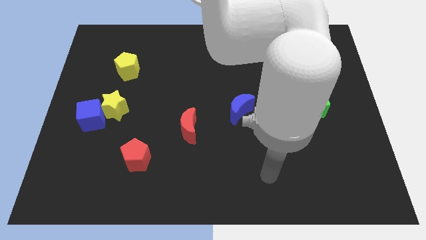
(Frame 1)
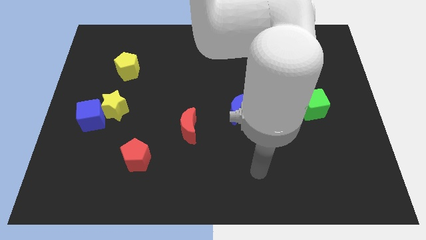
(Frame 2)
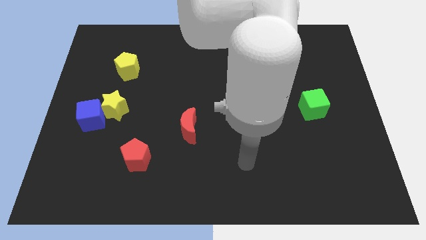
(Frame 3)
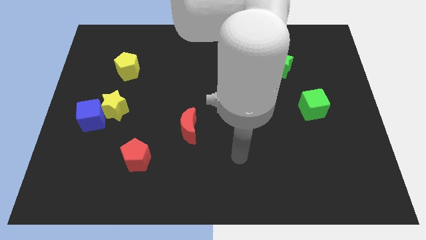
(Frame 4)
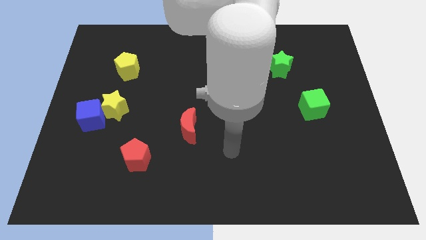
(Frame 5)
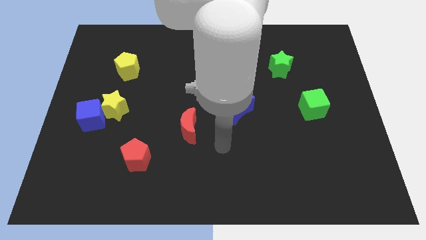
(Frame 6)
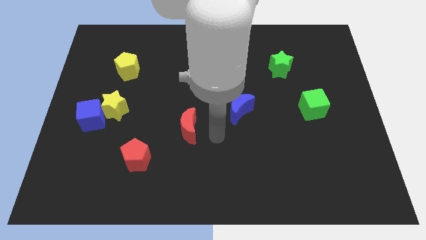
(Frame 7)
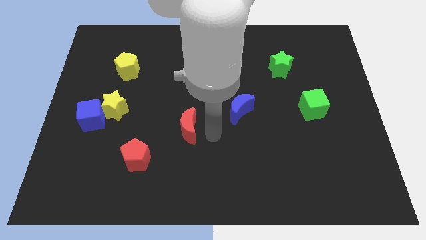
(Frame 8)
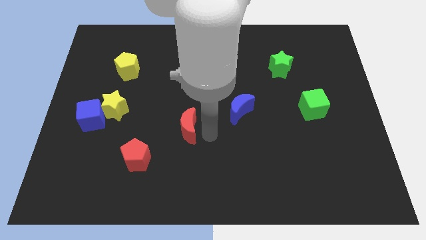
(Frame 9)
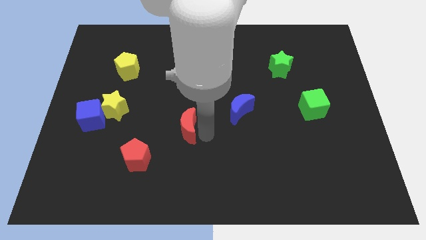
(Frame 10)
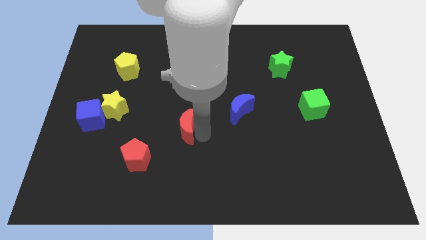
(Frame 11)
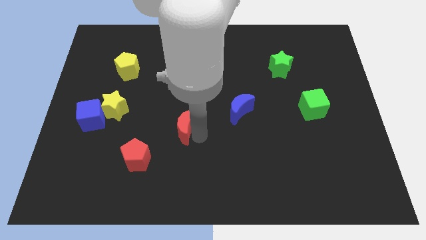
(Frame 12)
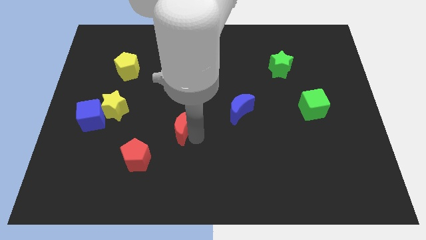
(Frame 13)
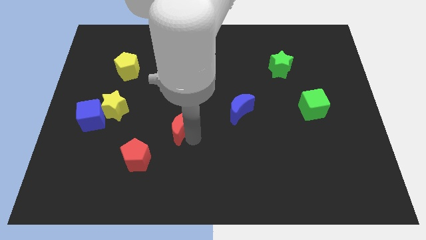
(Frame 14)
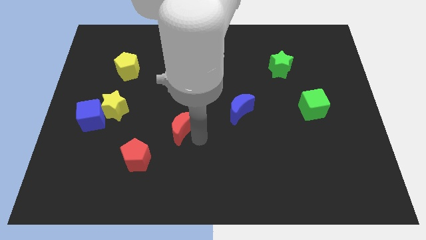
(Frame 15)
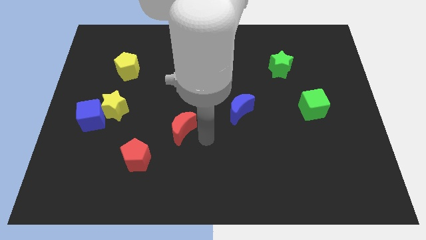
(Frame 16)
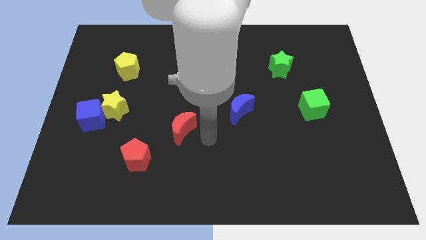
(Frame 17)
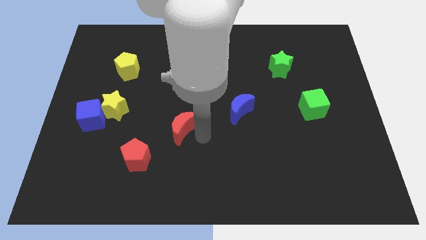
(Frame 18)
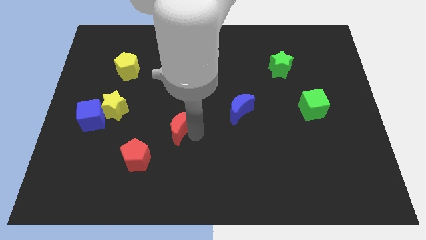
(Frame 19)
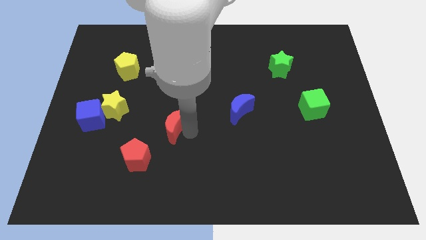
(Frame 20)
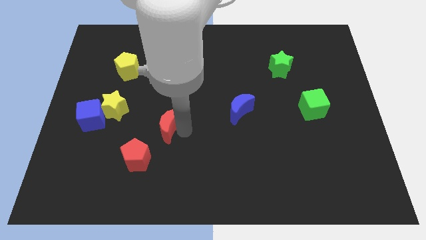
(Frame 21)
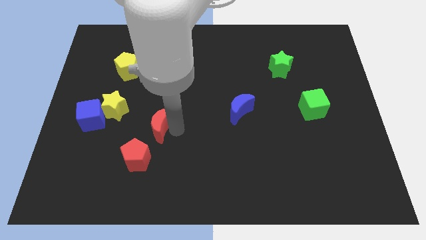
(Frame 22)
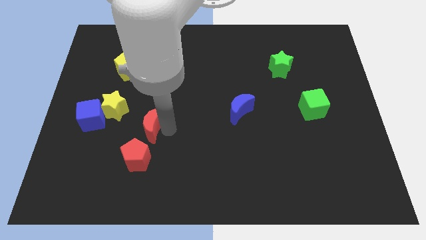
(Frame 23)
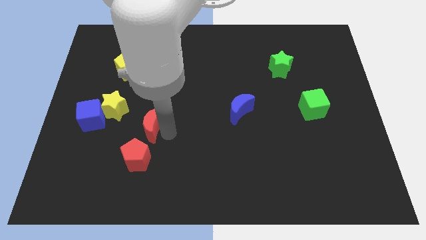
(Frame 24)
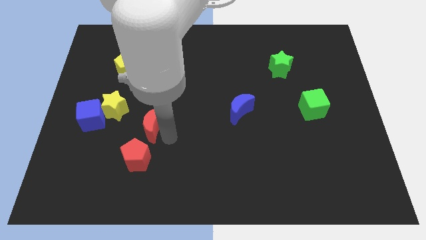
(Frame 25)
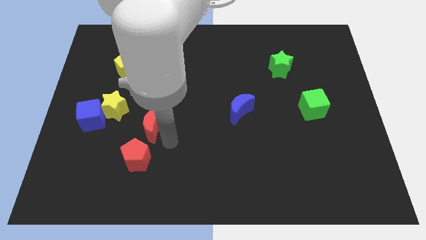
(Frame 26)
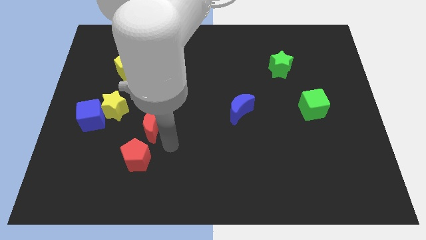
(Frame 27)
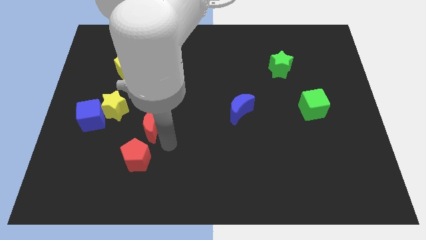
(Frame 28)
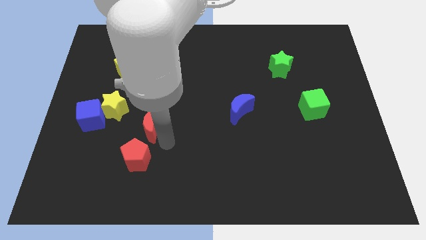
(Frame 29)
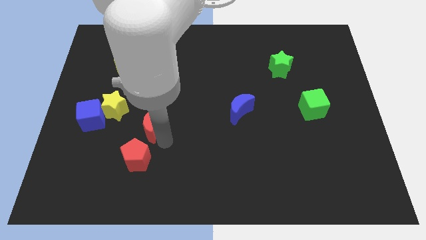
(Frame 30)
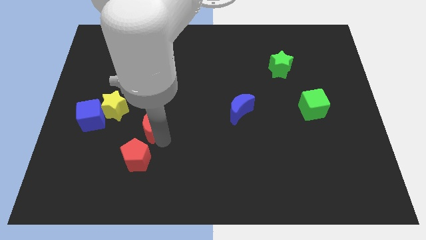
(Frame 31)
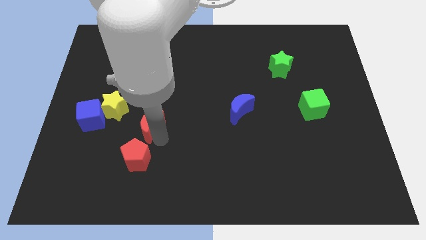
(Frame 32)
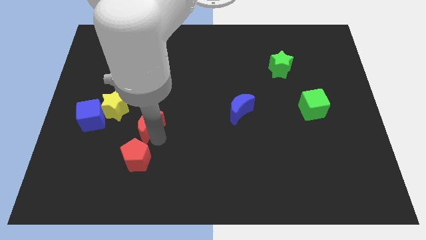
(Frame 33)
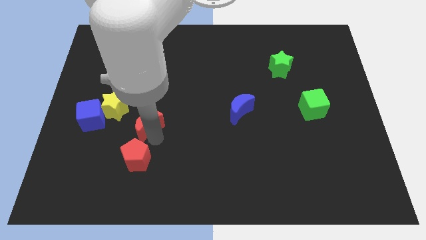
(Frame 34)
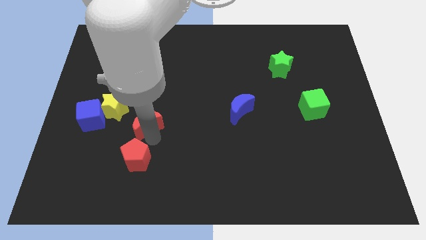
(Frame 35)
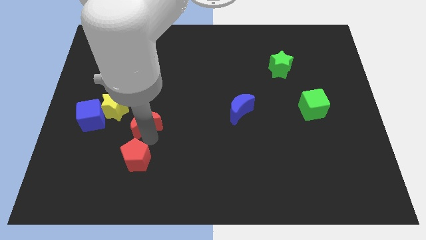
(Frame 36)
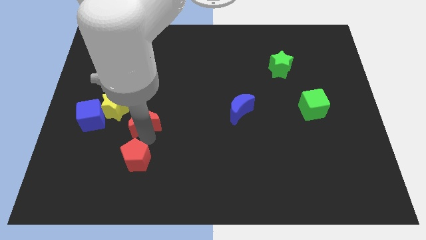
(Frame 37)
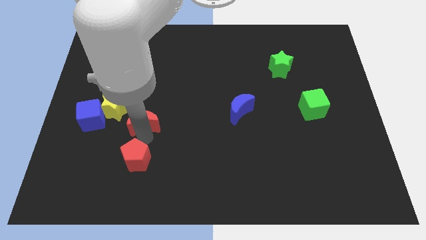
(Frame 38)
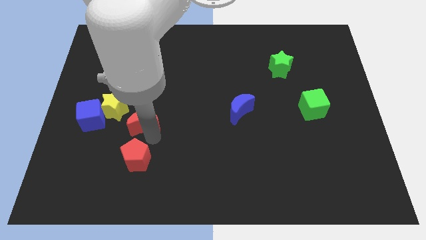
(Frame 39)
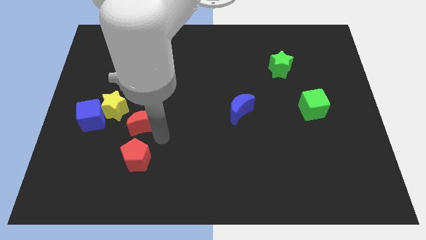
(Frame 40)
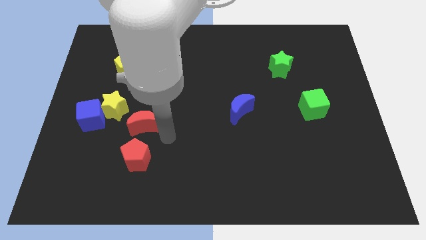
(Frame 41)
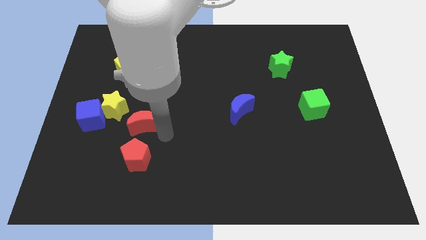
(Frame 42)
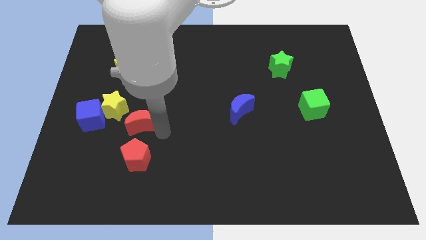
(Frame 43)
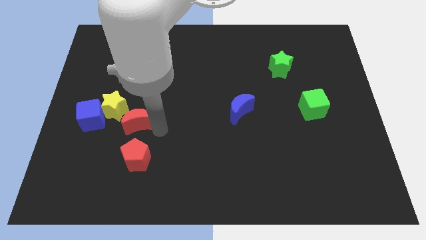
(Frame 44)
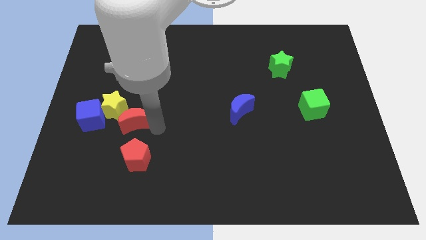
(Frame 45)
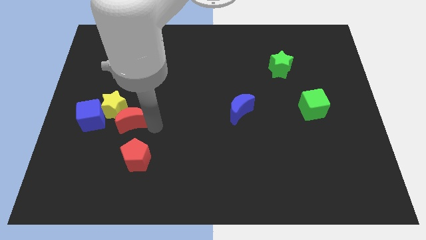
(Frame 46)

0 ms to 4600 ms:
push the red moon to the yellow star

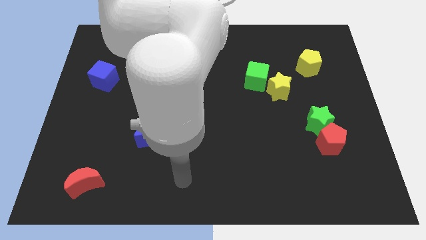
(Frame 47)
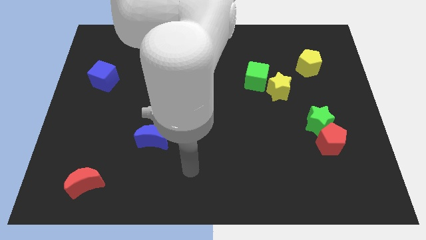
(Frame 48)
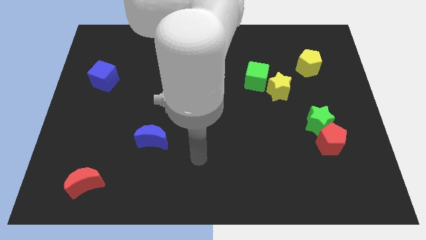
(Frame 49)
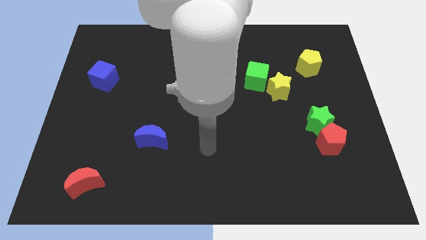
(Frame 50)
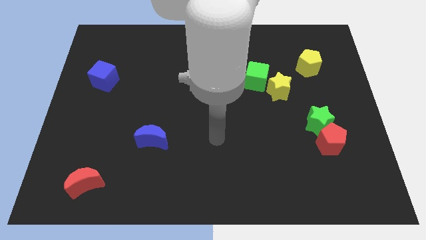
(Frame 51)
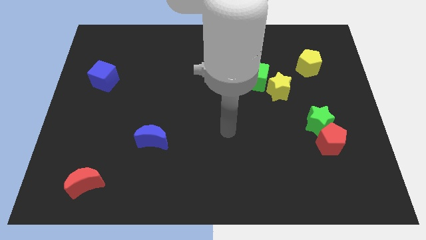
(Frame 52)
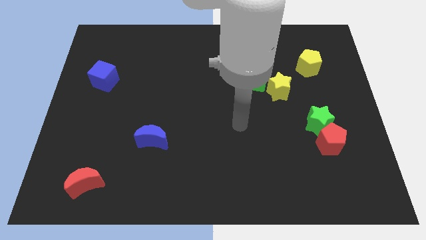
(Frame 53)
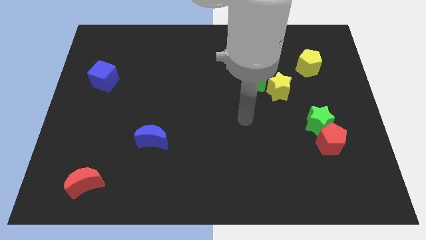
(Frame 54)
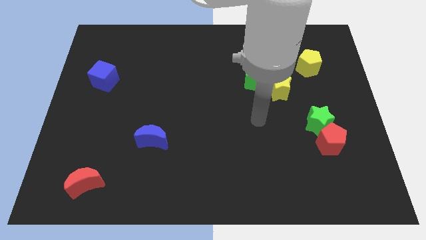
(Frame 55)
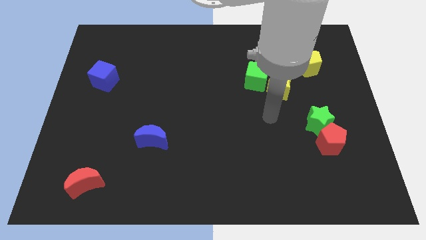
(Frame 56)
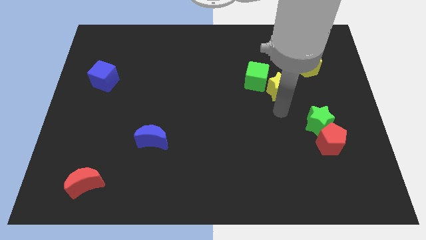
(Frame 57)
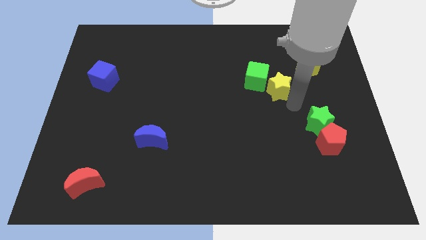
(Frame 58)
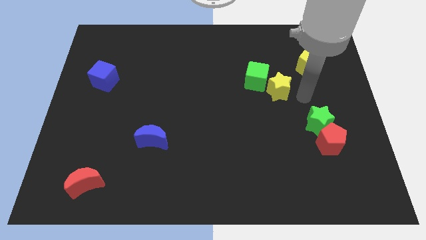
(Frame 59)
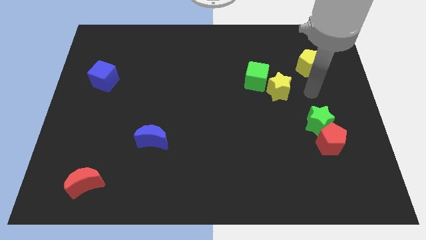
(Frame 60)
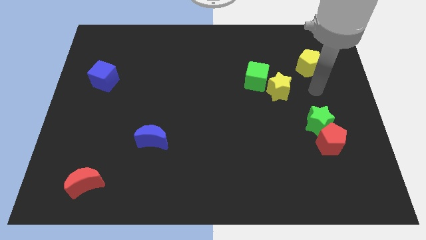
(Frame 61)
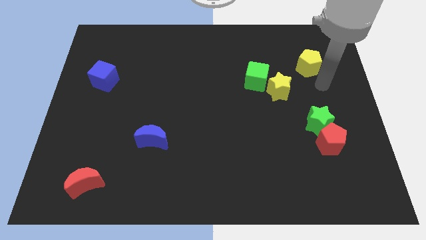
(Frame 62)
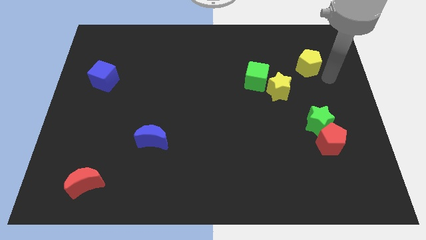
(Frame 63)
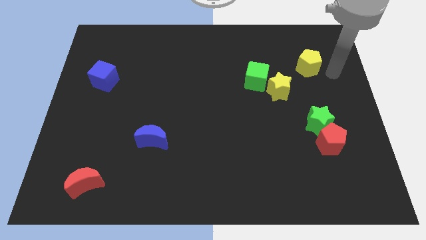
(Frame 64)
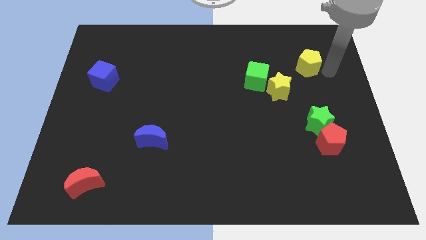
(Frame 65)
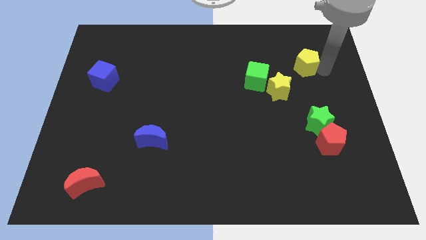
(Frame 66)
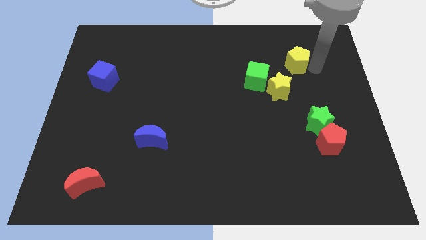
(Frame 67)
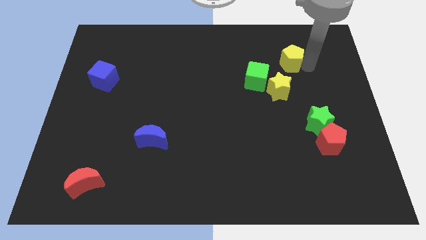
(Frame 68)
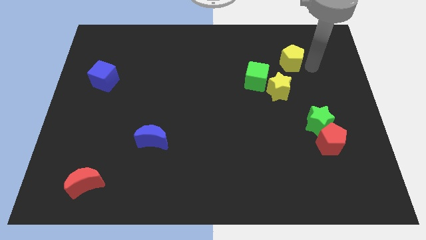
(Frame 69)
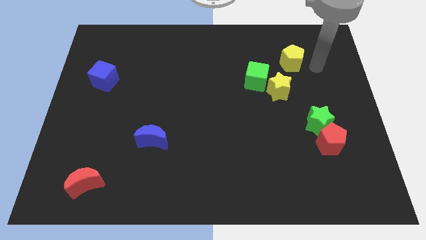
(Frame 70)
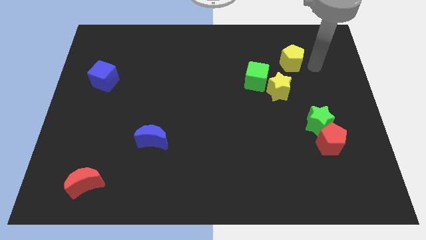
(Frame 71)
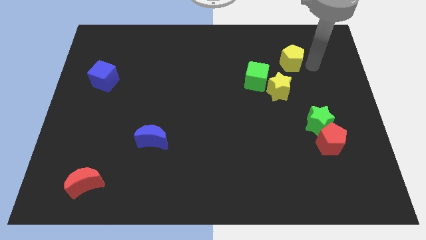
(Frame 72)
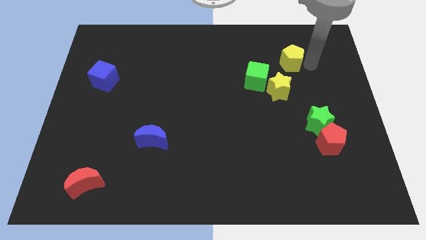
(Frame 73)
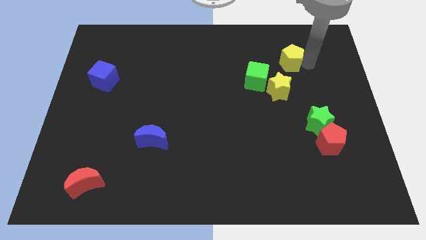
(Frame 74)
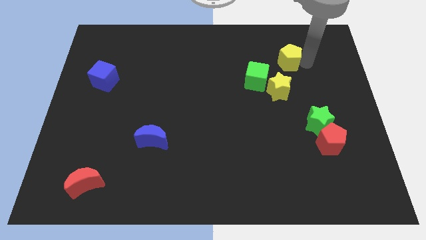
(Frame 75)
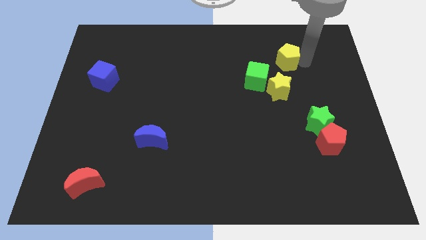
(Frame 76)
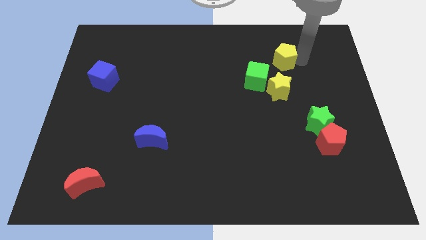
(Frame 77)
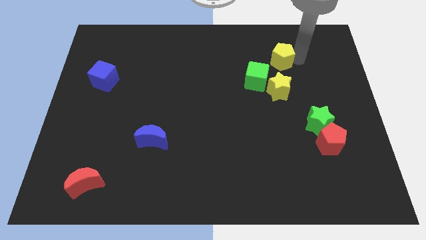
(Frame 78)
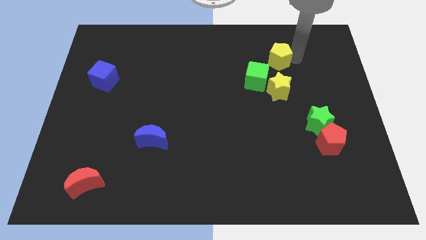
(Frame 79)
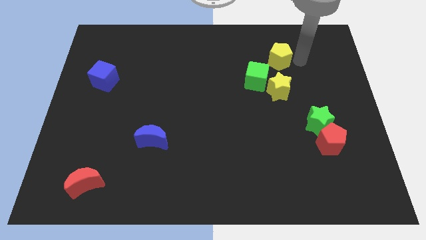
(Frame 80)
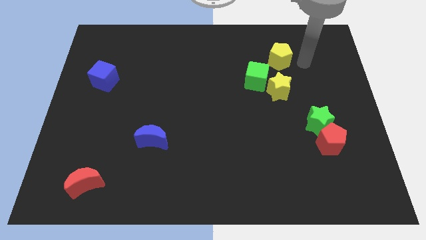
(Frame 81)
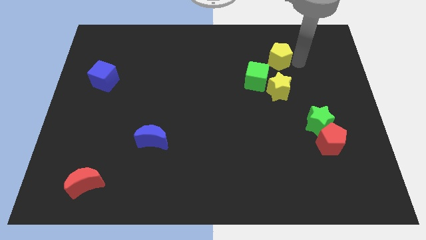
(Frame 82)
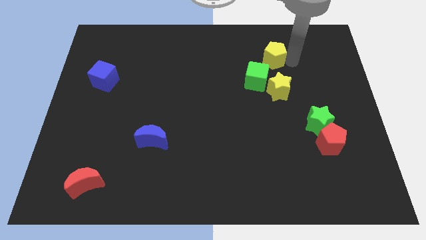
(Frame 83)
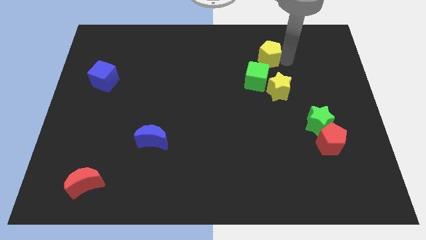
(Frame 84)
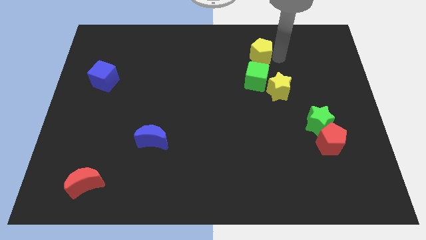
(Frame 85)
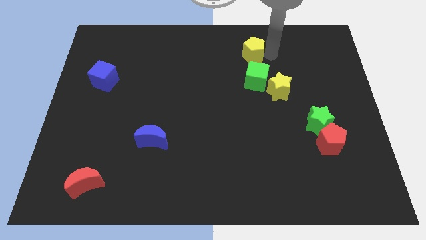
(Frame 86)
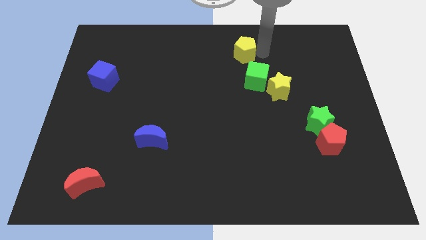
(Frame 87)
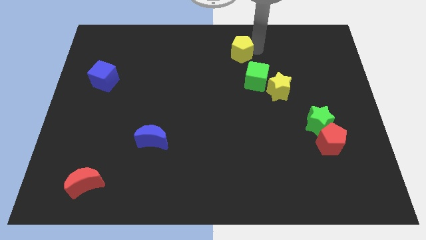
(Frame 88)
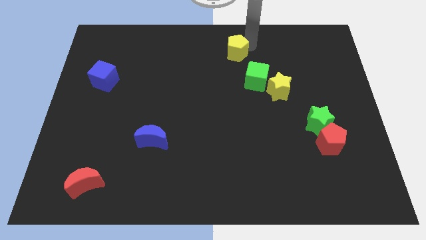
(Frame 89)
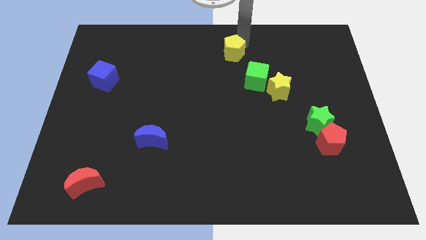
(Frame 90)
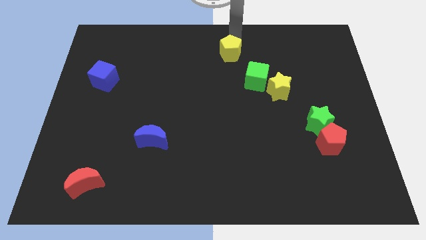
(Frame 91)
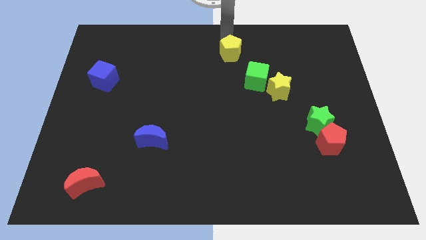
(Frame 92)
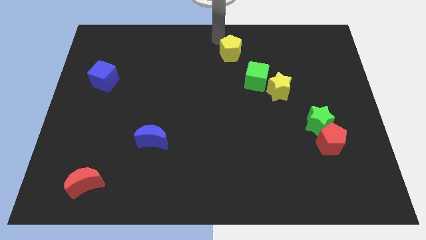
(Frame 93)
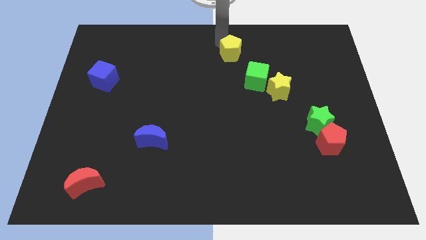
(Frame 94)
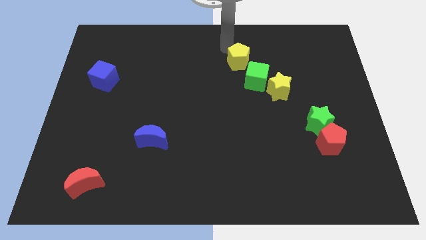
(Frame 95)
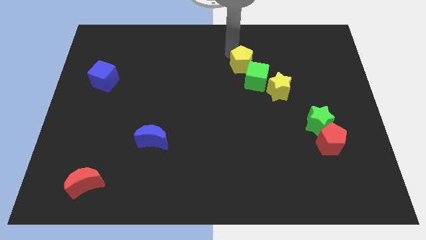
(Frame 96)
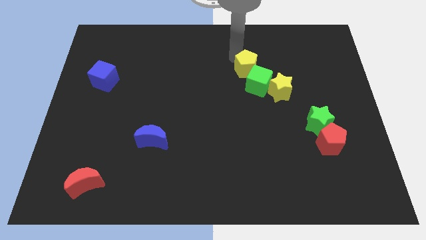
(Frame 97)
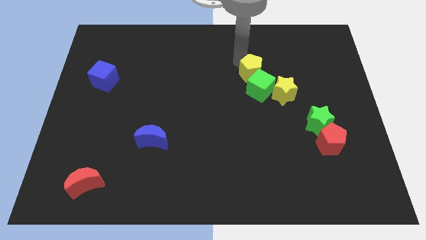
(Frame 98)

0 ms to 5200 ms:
put the yellow pentagon close to the green cube
